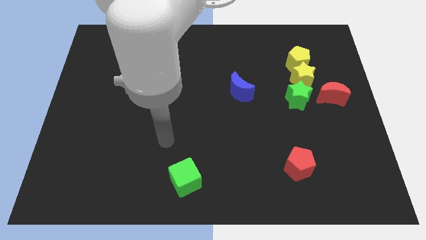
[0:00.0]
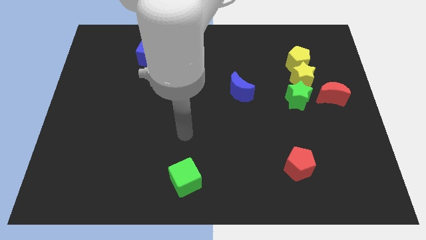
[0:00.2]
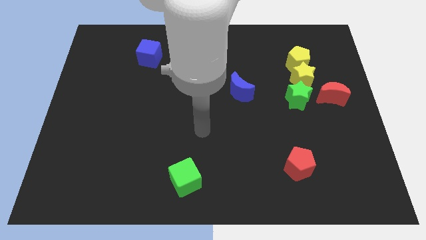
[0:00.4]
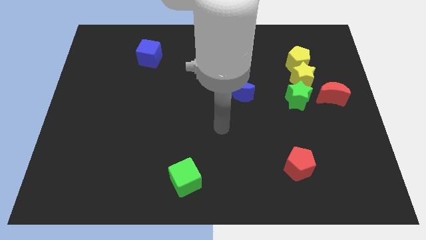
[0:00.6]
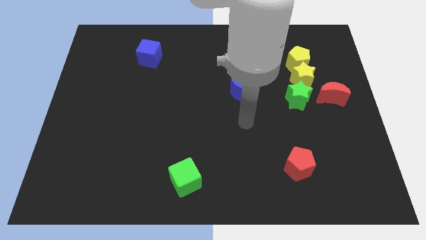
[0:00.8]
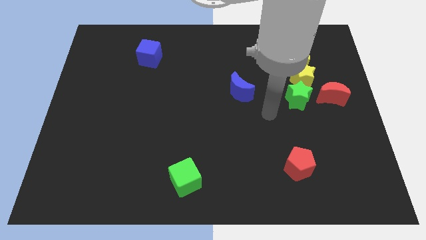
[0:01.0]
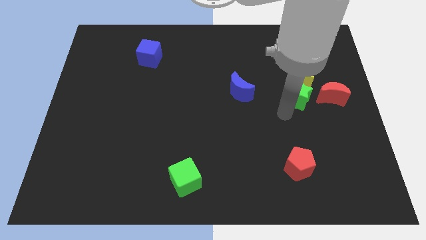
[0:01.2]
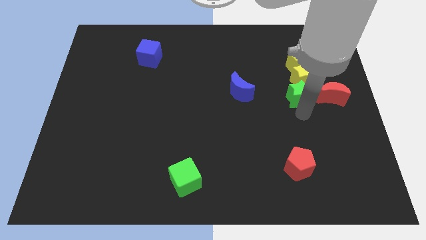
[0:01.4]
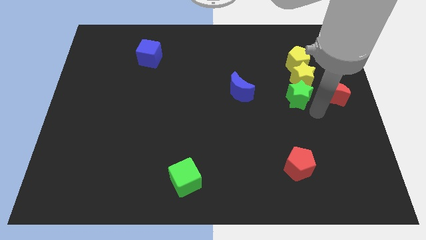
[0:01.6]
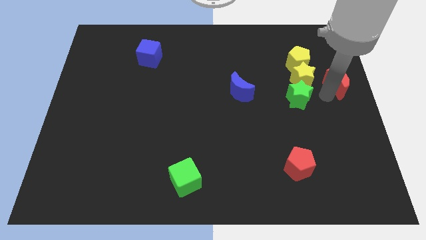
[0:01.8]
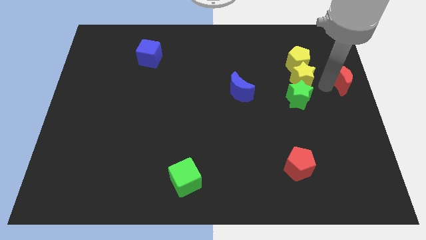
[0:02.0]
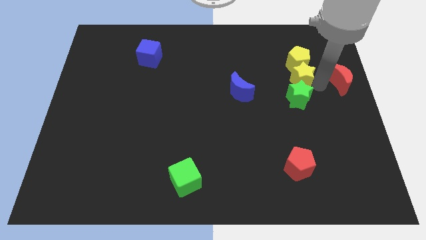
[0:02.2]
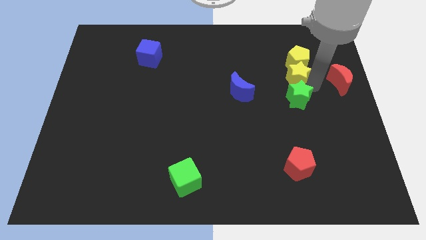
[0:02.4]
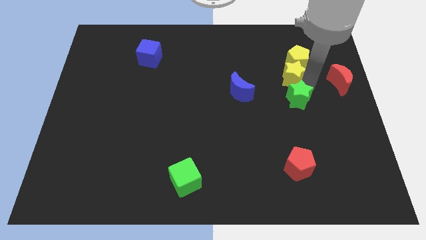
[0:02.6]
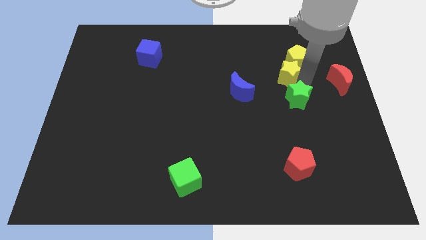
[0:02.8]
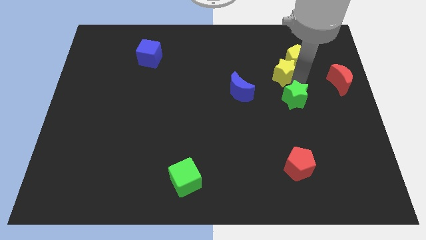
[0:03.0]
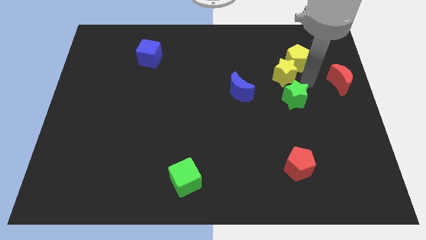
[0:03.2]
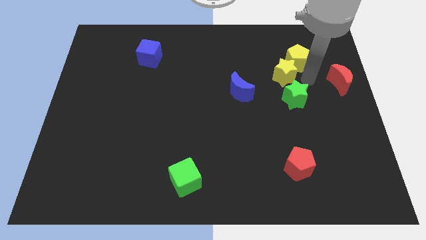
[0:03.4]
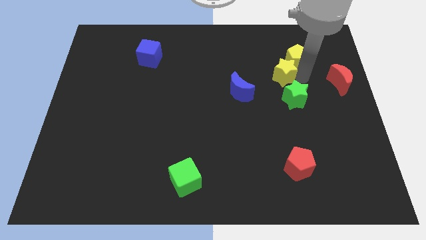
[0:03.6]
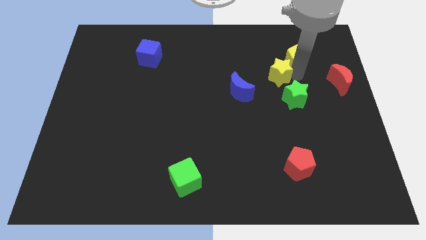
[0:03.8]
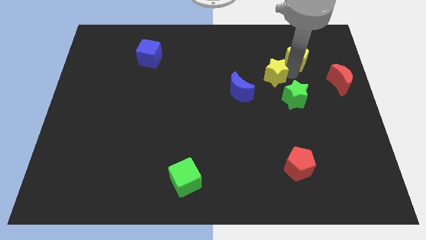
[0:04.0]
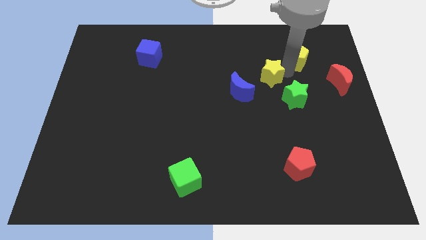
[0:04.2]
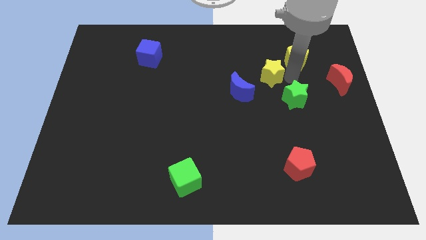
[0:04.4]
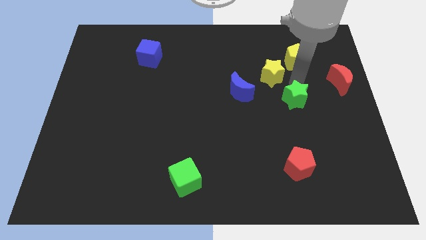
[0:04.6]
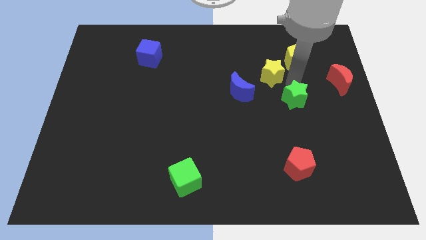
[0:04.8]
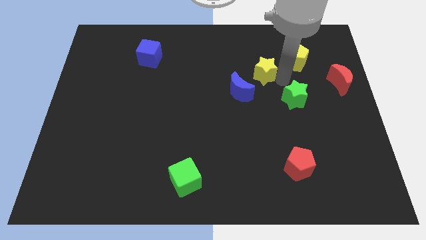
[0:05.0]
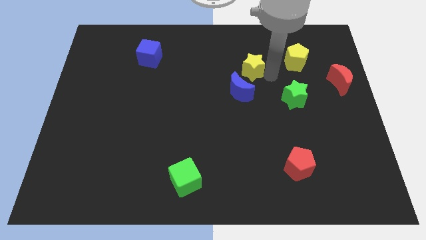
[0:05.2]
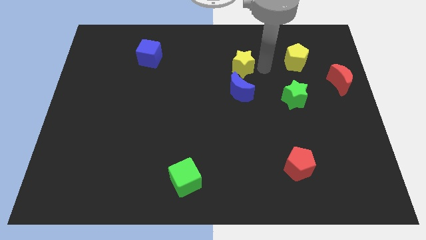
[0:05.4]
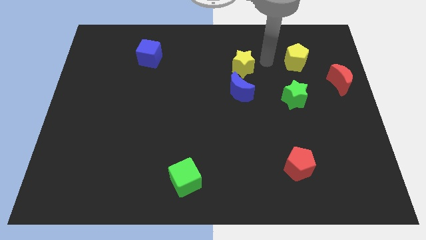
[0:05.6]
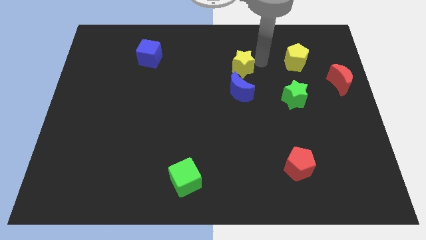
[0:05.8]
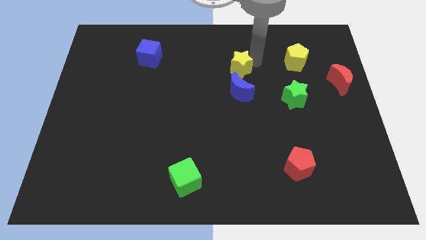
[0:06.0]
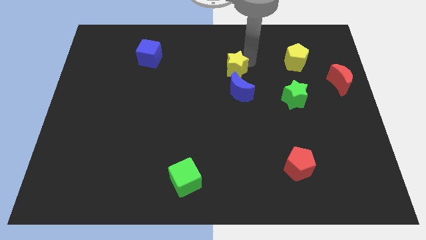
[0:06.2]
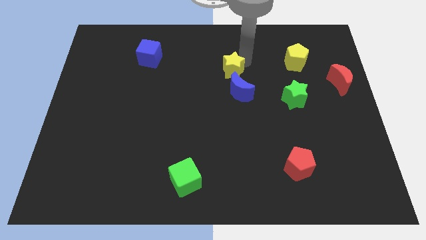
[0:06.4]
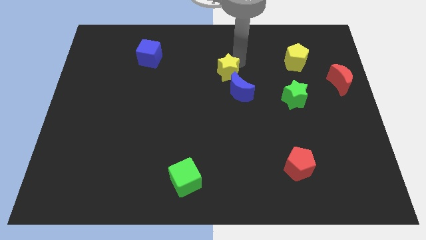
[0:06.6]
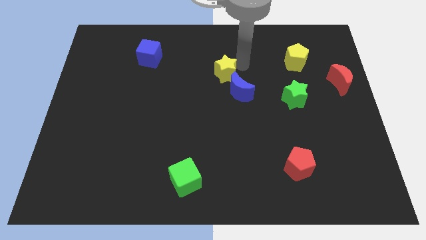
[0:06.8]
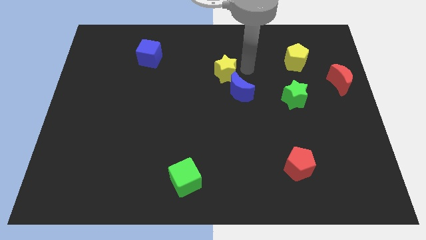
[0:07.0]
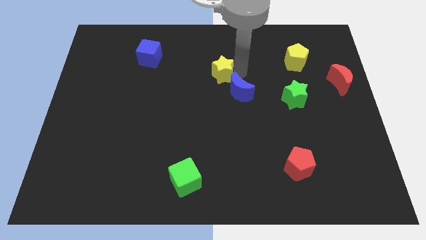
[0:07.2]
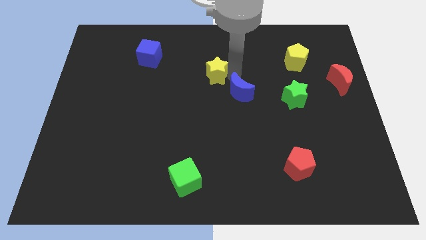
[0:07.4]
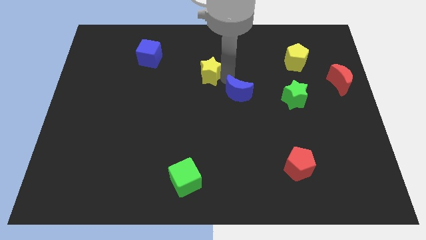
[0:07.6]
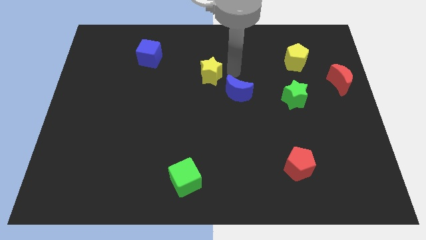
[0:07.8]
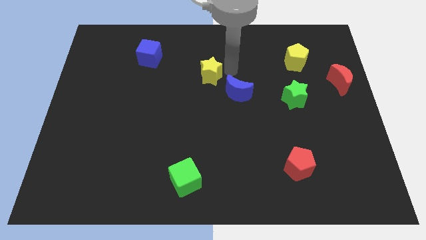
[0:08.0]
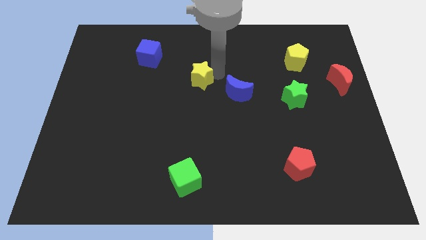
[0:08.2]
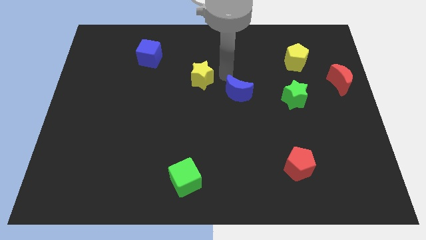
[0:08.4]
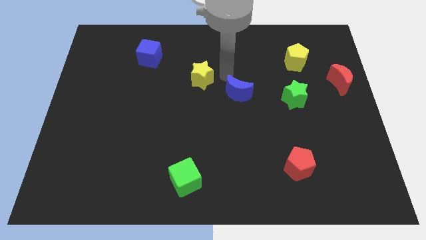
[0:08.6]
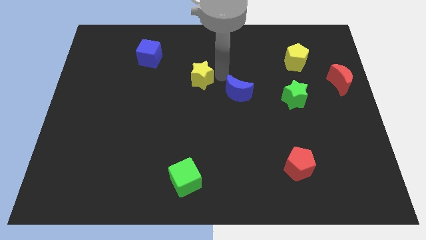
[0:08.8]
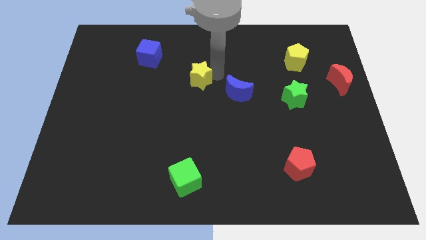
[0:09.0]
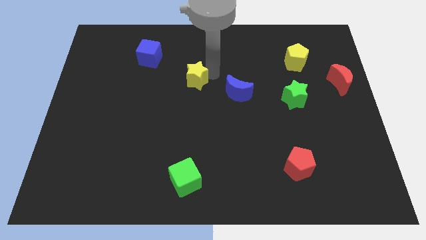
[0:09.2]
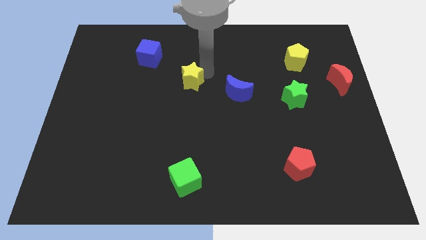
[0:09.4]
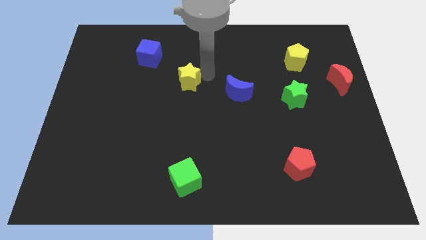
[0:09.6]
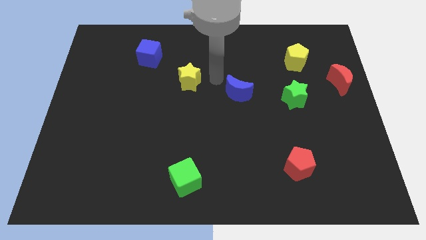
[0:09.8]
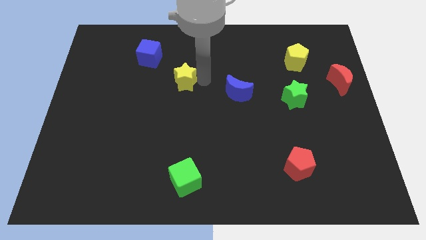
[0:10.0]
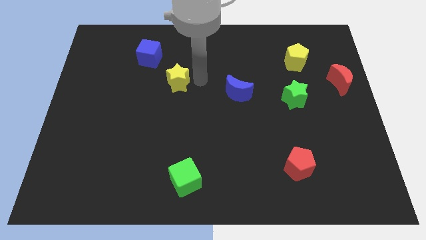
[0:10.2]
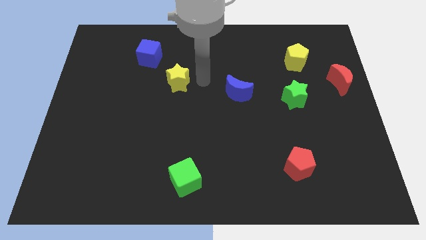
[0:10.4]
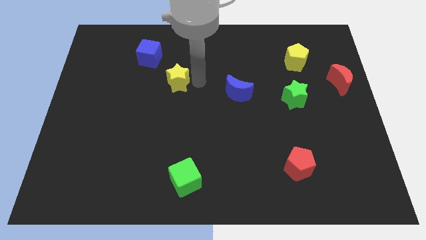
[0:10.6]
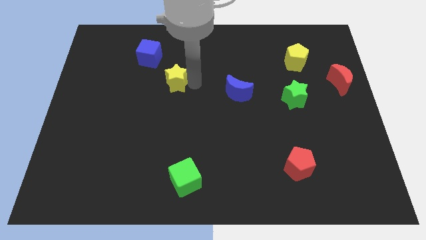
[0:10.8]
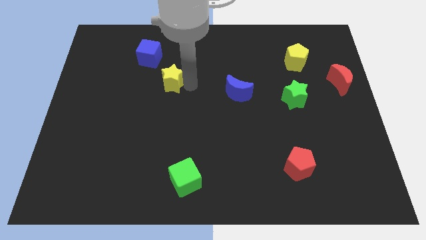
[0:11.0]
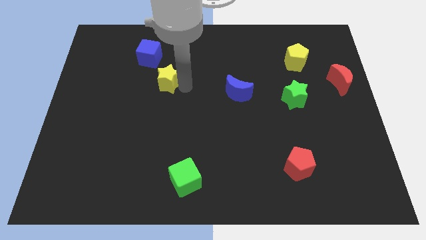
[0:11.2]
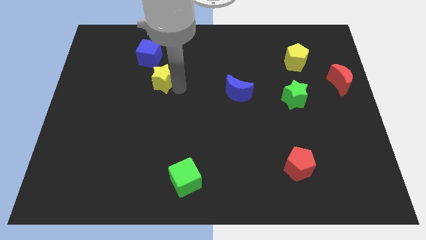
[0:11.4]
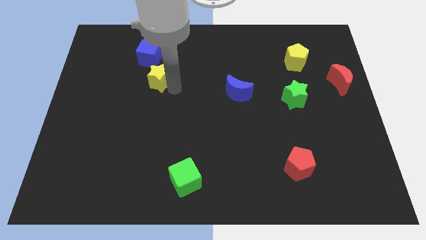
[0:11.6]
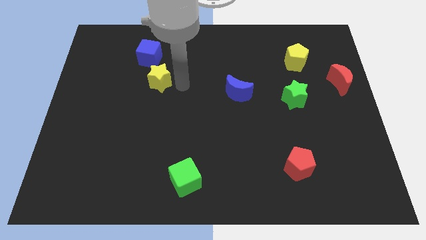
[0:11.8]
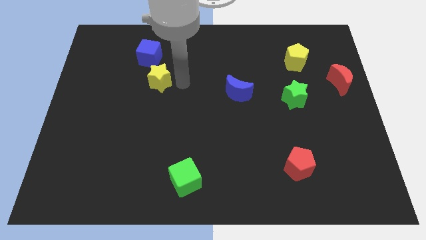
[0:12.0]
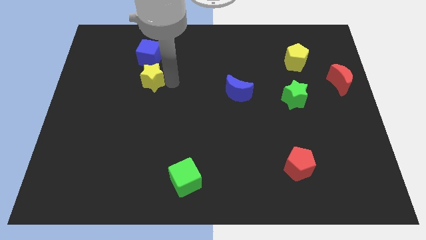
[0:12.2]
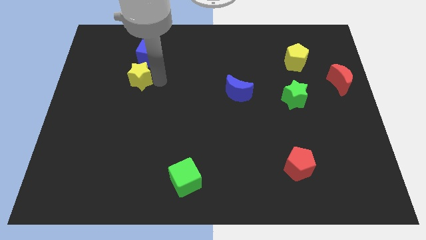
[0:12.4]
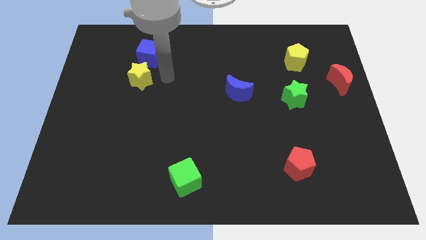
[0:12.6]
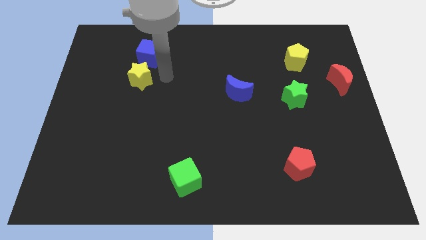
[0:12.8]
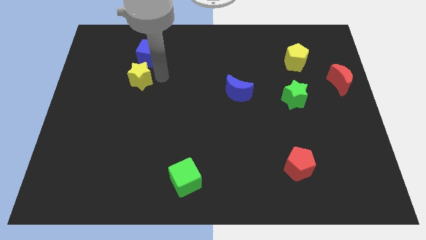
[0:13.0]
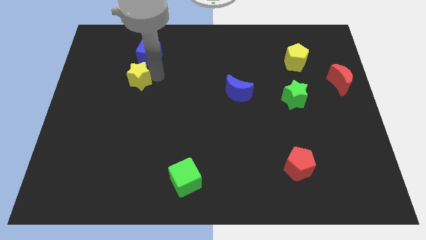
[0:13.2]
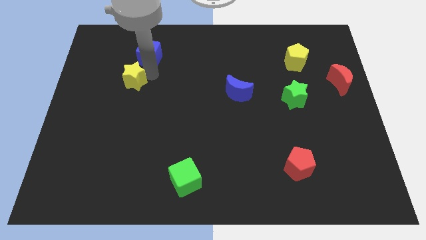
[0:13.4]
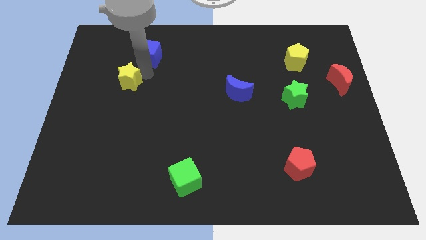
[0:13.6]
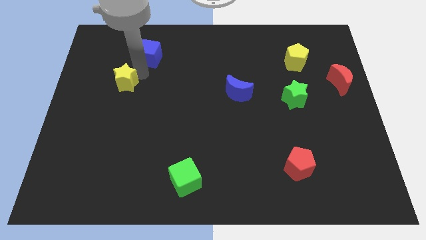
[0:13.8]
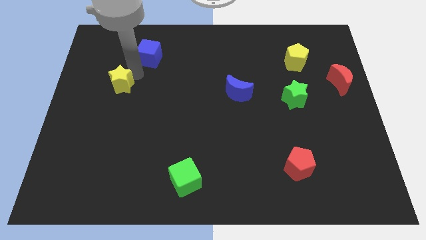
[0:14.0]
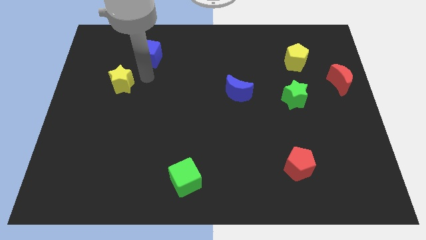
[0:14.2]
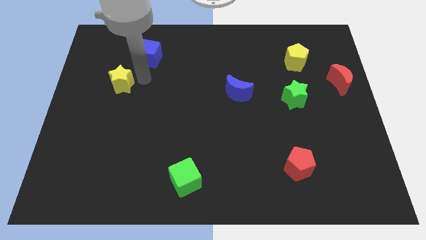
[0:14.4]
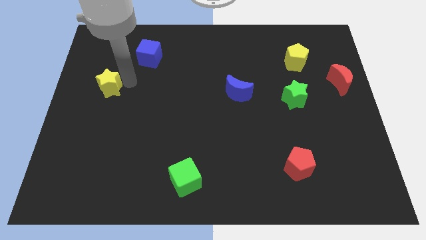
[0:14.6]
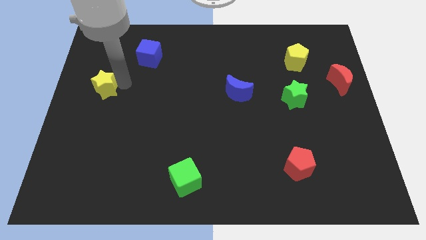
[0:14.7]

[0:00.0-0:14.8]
put the yellow star to the left side
